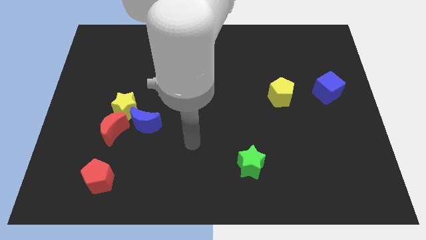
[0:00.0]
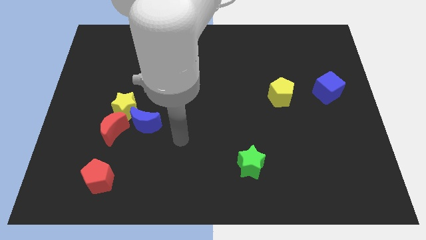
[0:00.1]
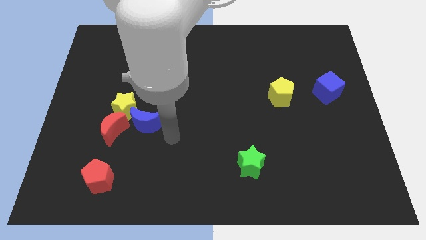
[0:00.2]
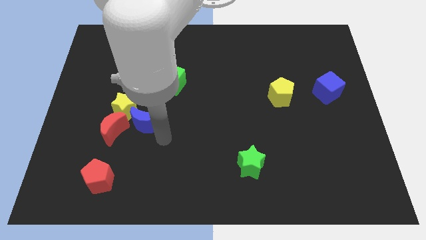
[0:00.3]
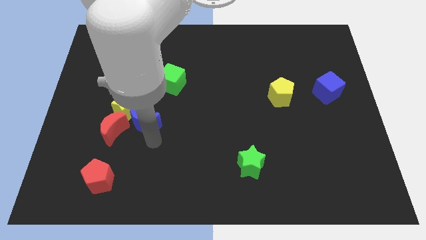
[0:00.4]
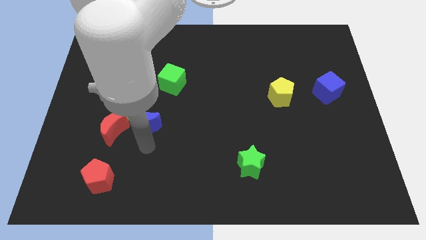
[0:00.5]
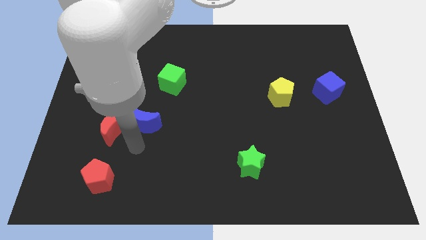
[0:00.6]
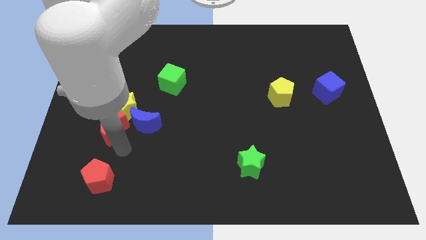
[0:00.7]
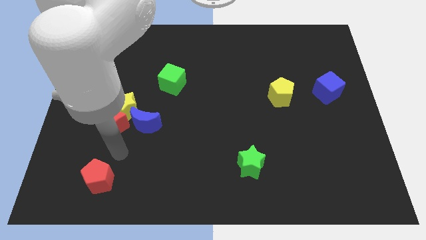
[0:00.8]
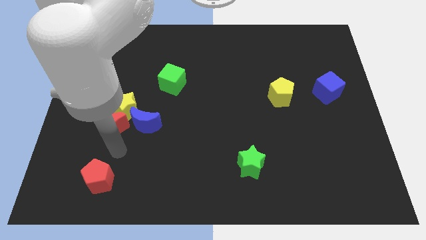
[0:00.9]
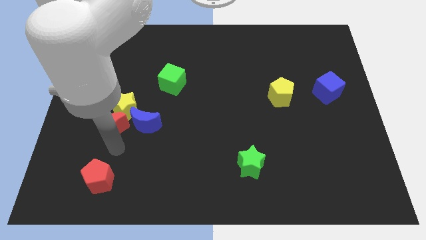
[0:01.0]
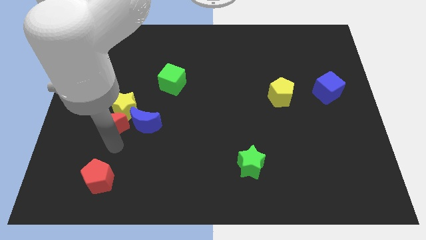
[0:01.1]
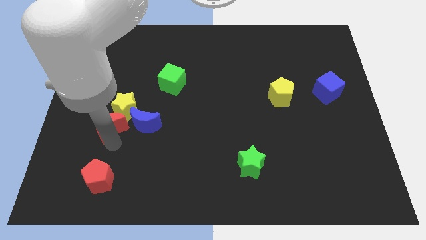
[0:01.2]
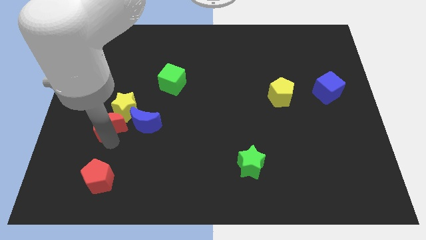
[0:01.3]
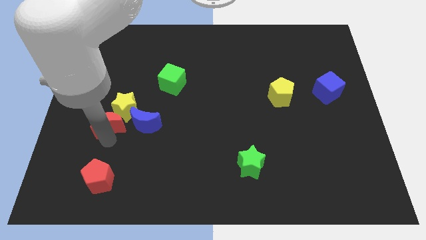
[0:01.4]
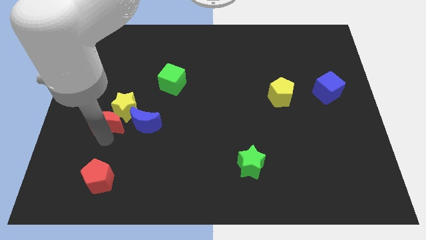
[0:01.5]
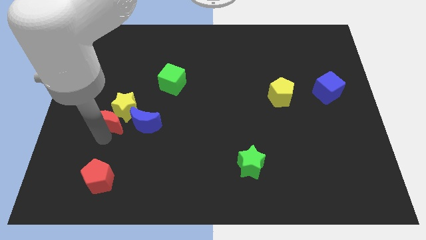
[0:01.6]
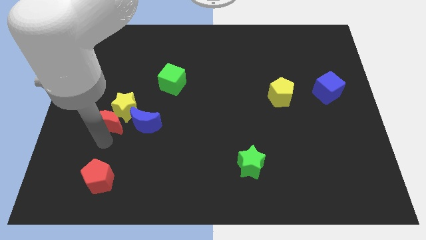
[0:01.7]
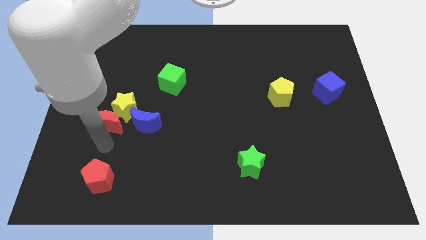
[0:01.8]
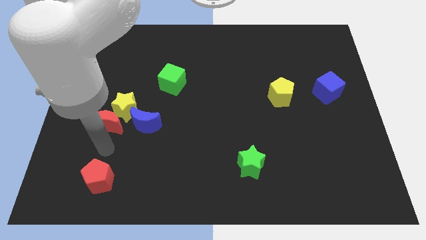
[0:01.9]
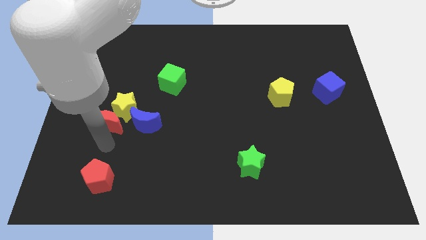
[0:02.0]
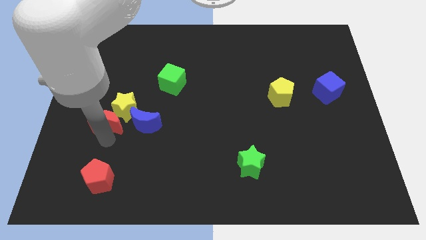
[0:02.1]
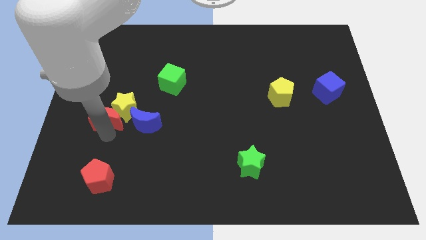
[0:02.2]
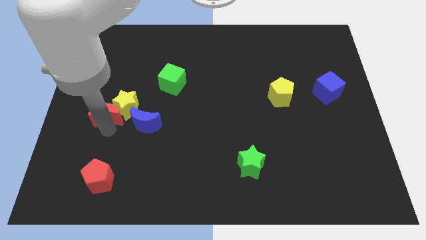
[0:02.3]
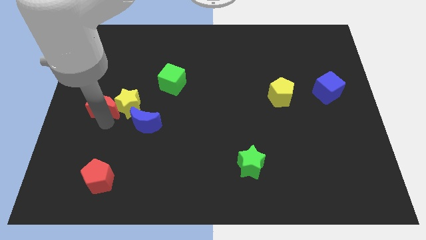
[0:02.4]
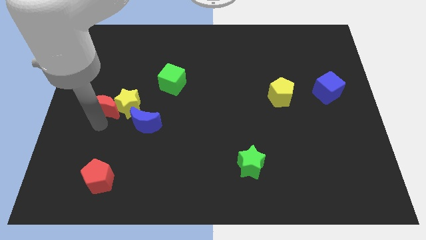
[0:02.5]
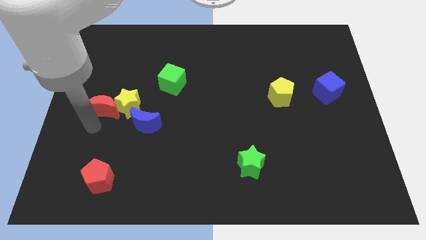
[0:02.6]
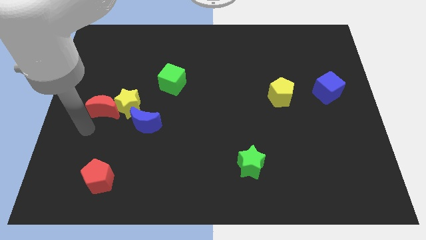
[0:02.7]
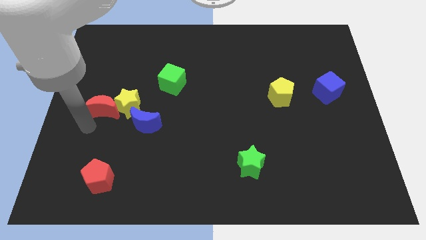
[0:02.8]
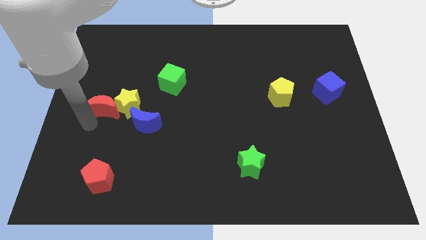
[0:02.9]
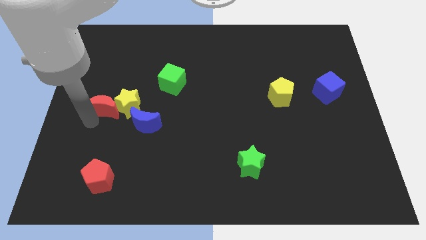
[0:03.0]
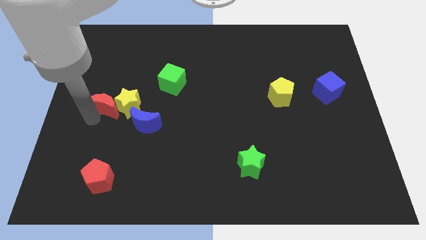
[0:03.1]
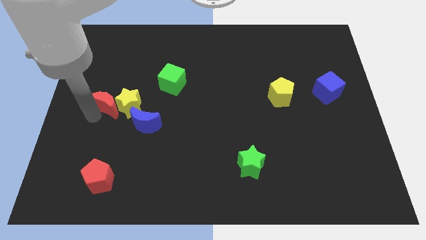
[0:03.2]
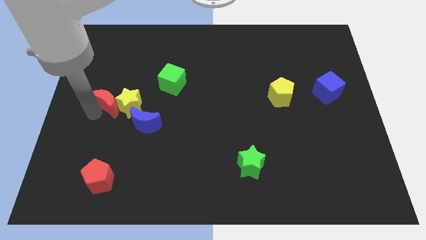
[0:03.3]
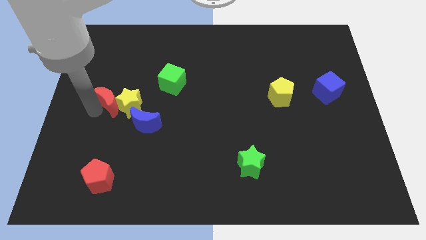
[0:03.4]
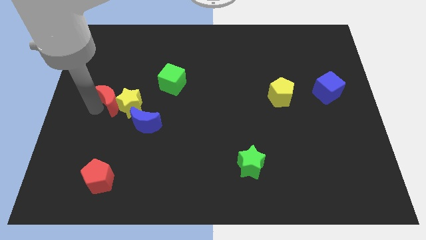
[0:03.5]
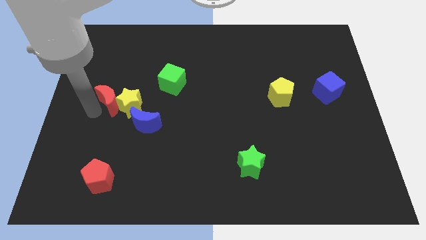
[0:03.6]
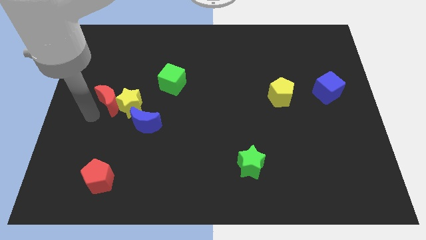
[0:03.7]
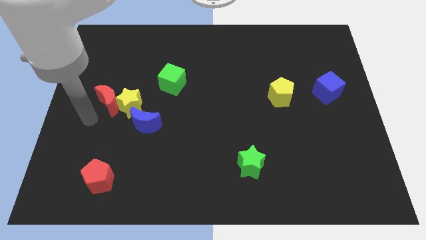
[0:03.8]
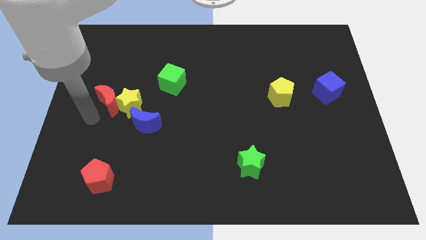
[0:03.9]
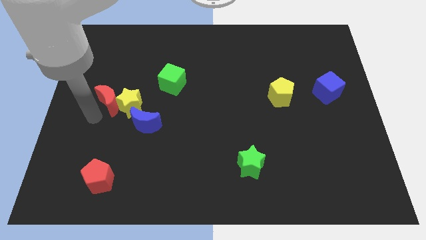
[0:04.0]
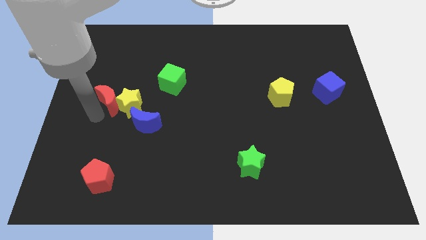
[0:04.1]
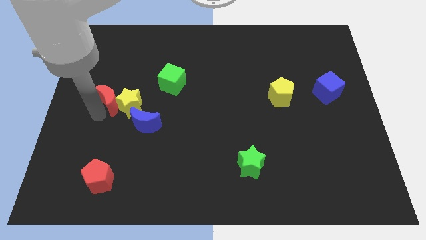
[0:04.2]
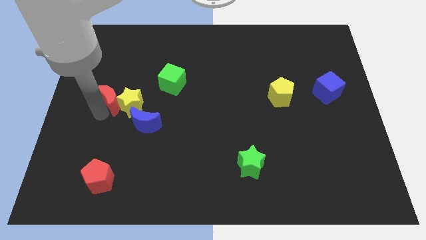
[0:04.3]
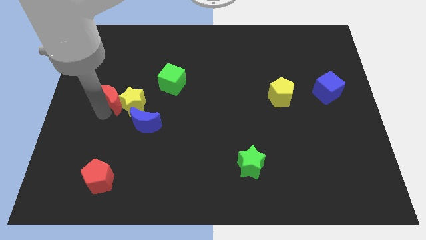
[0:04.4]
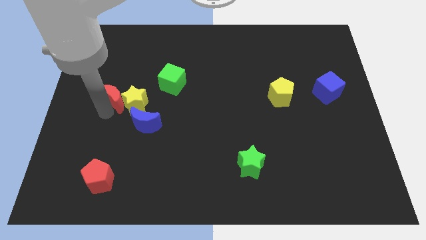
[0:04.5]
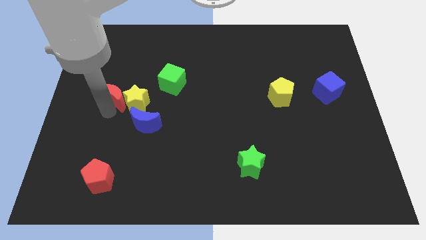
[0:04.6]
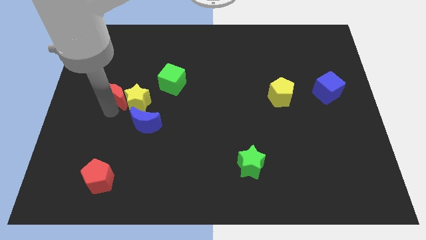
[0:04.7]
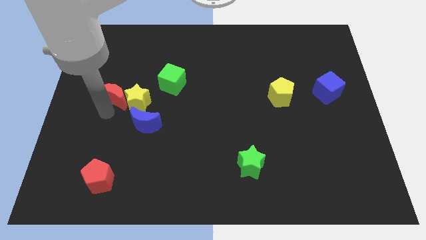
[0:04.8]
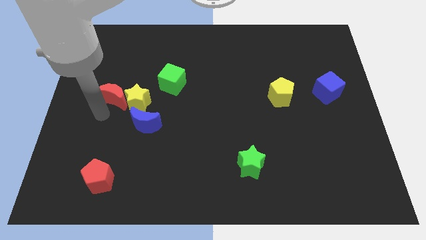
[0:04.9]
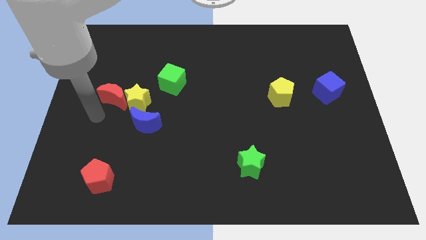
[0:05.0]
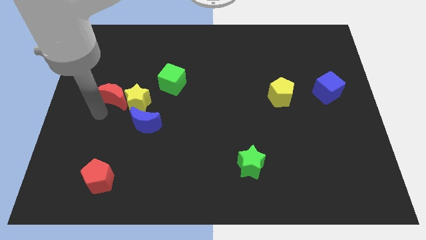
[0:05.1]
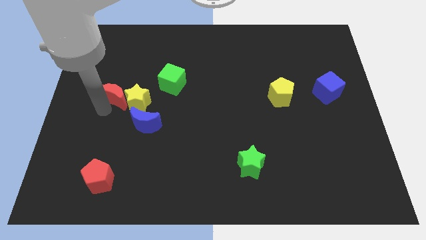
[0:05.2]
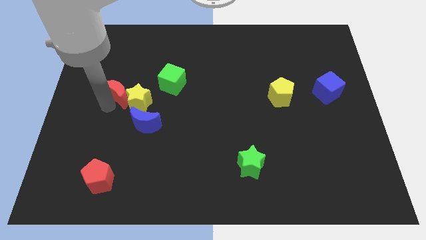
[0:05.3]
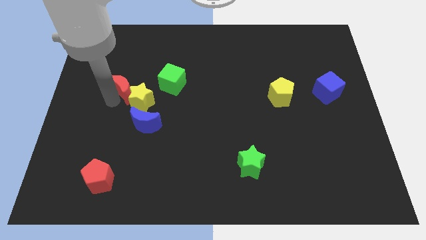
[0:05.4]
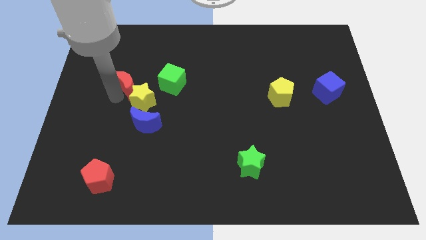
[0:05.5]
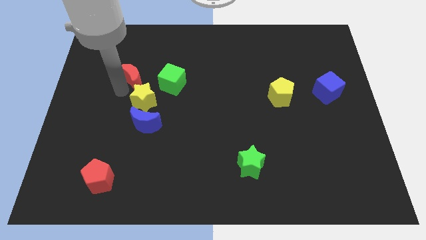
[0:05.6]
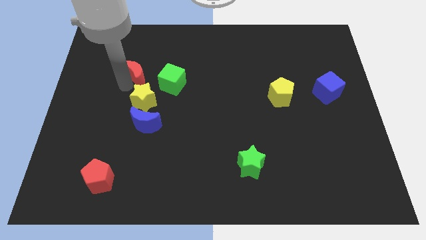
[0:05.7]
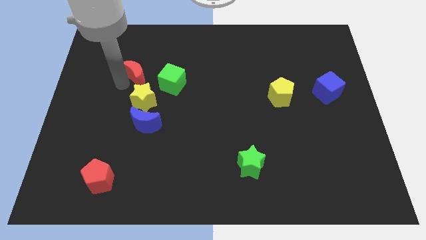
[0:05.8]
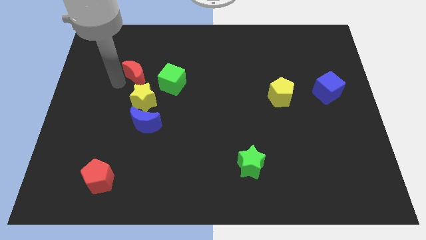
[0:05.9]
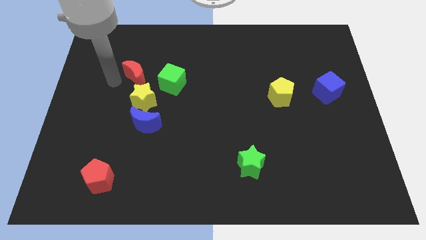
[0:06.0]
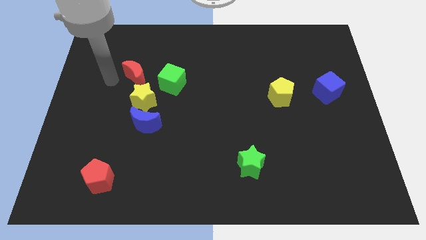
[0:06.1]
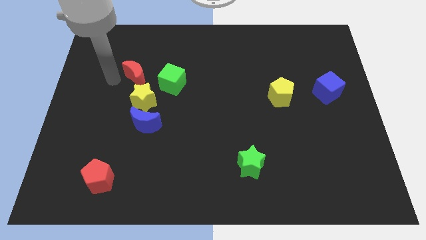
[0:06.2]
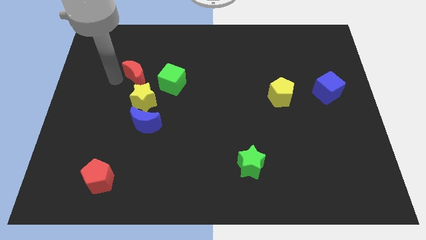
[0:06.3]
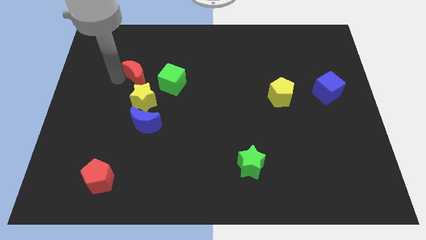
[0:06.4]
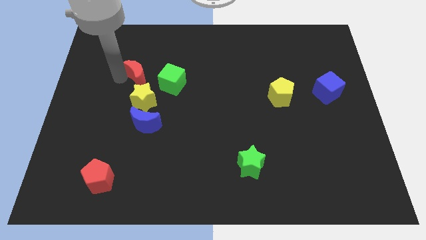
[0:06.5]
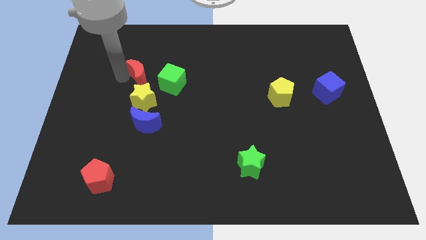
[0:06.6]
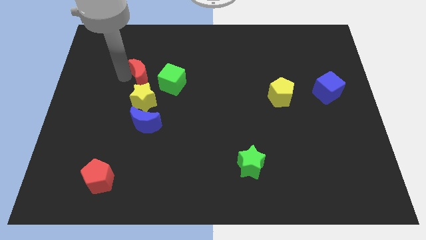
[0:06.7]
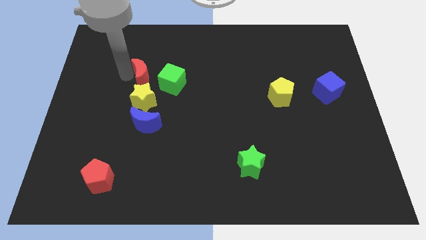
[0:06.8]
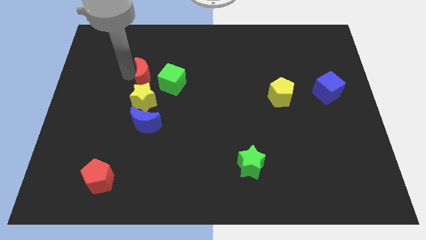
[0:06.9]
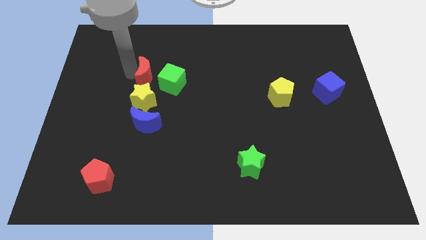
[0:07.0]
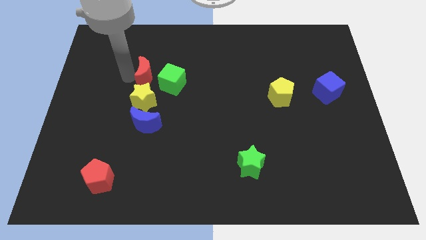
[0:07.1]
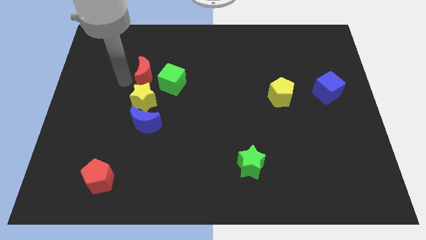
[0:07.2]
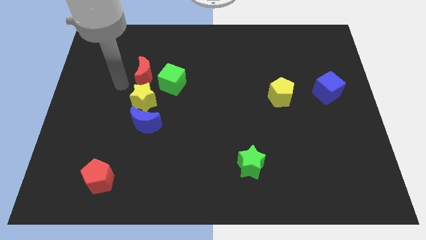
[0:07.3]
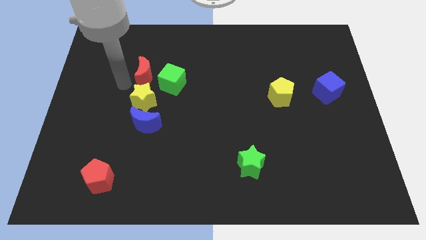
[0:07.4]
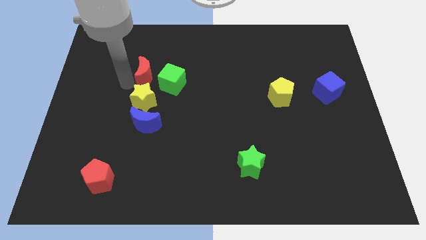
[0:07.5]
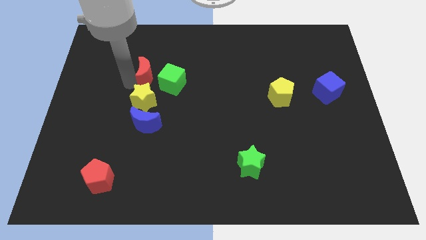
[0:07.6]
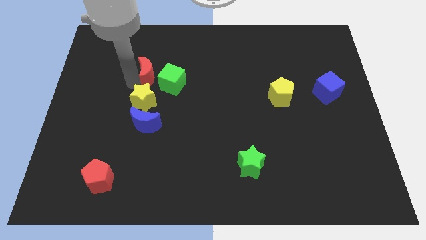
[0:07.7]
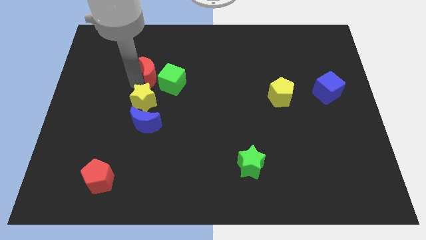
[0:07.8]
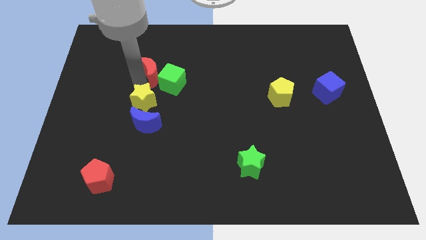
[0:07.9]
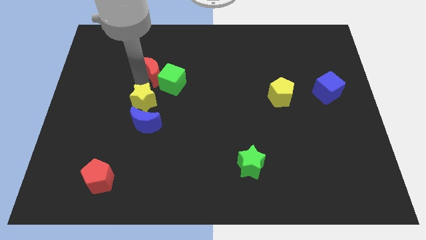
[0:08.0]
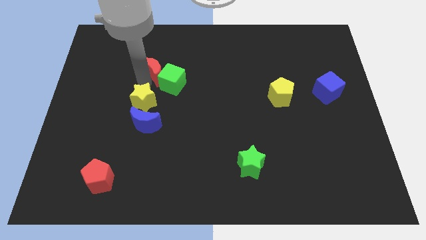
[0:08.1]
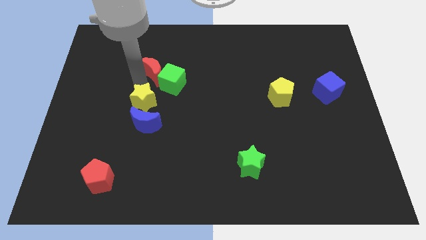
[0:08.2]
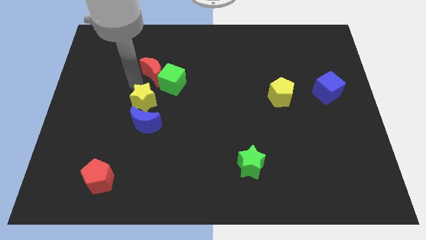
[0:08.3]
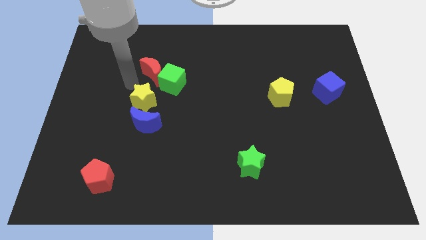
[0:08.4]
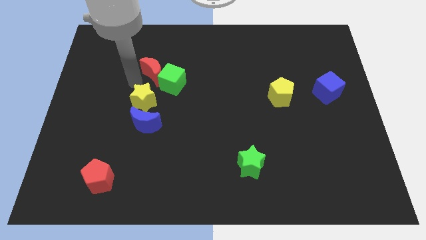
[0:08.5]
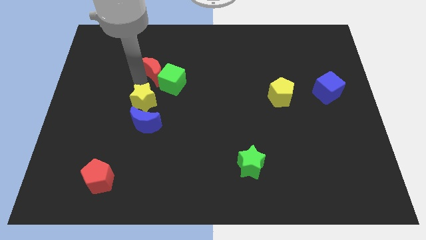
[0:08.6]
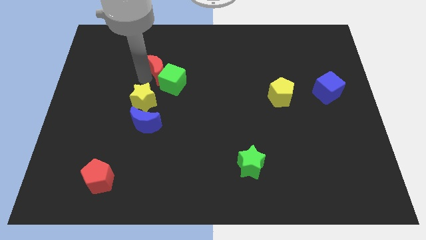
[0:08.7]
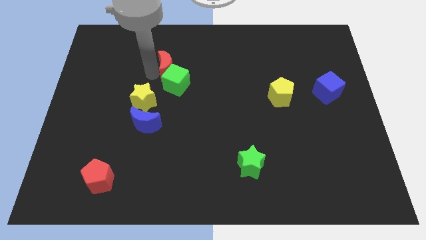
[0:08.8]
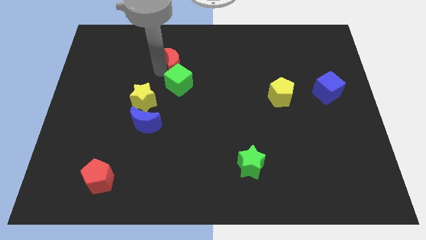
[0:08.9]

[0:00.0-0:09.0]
move the red moon upwards and right diagonally
